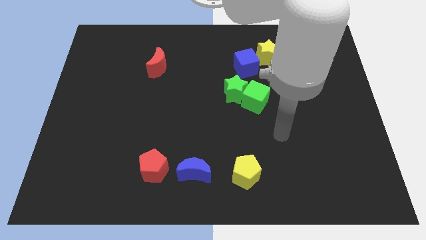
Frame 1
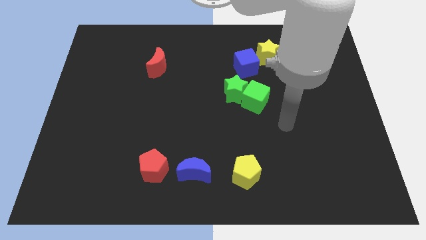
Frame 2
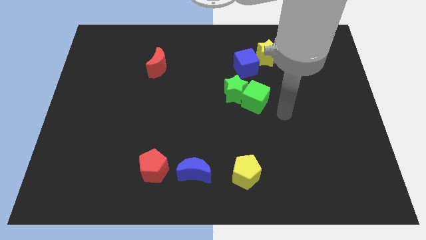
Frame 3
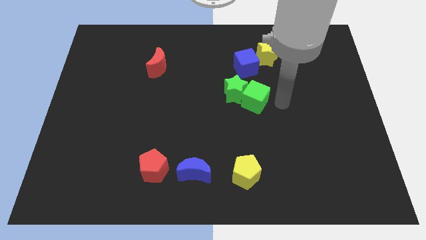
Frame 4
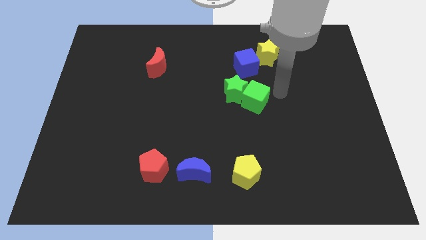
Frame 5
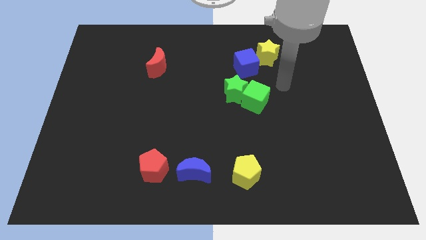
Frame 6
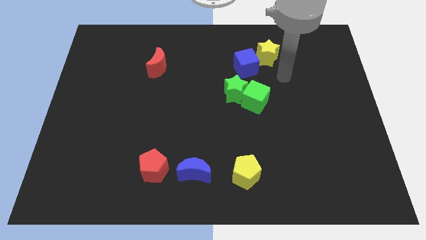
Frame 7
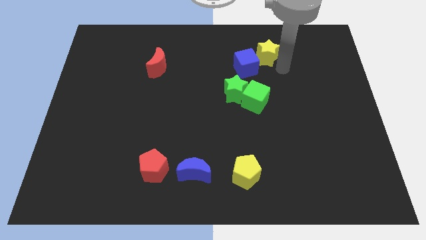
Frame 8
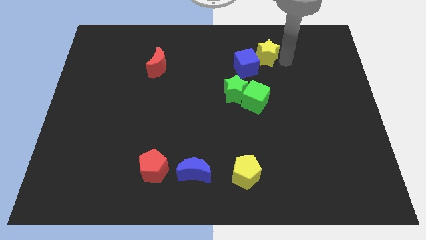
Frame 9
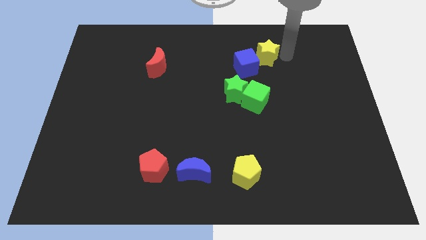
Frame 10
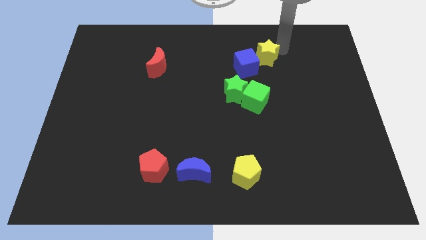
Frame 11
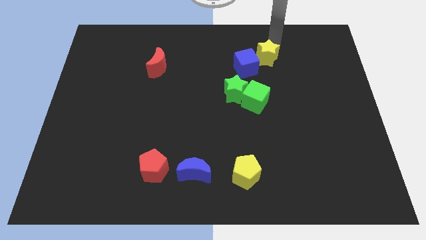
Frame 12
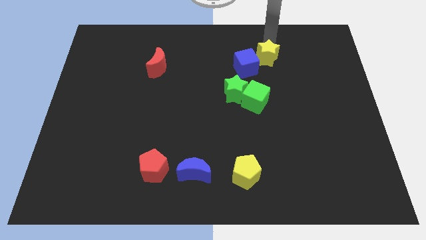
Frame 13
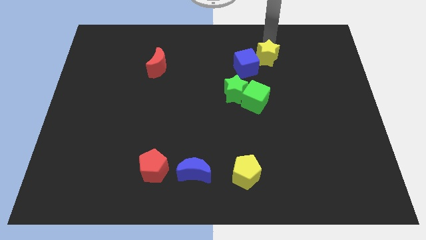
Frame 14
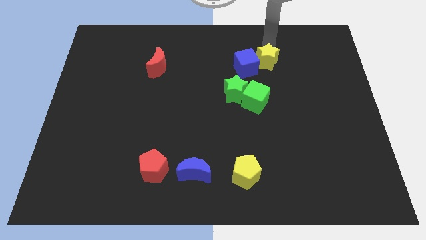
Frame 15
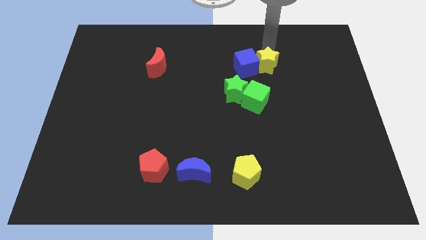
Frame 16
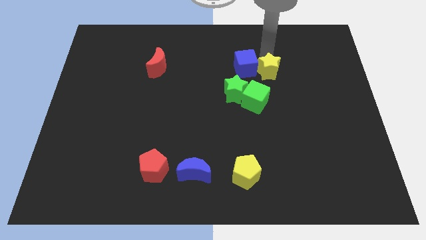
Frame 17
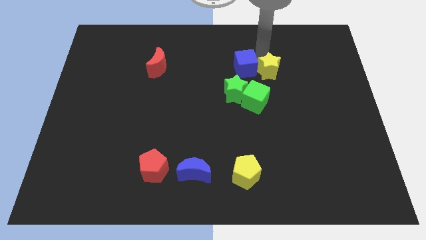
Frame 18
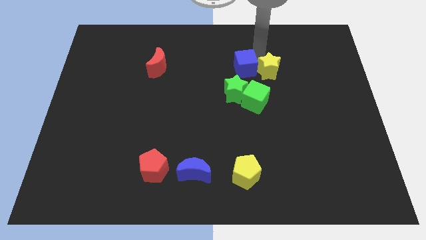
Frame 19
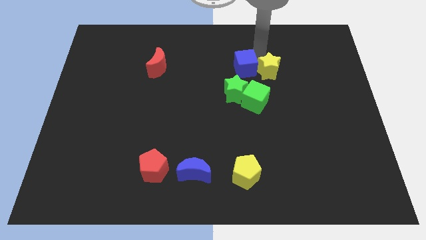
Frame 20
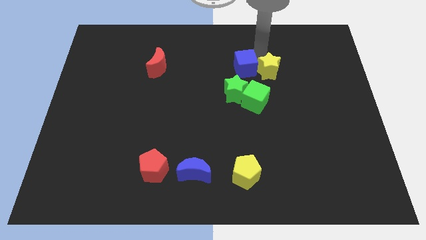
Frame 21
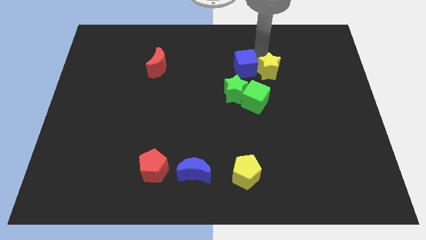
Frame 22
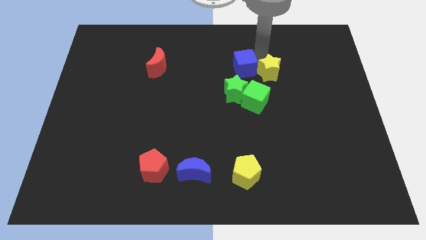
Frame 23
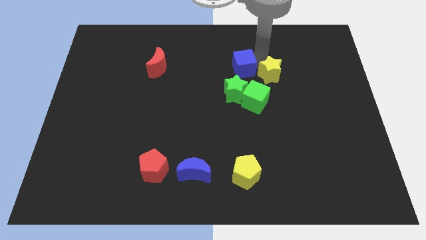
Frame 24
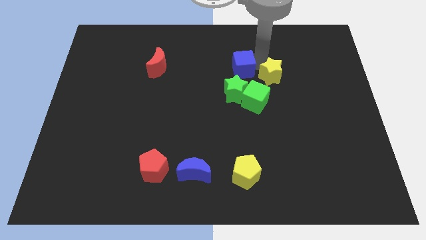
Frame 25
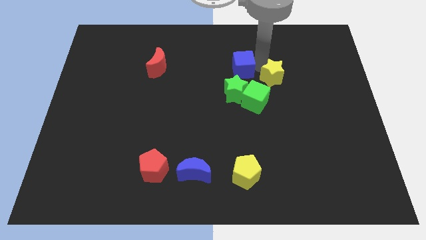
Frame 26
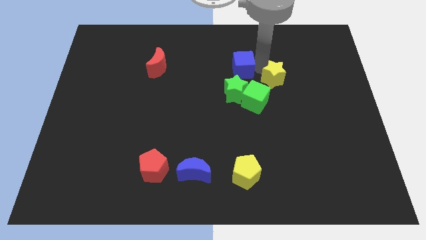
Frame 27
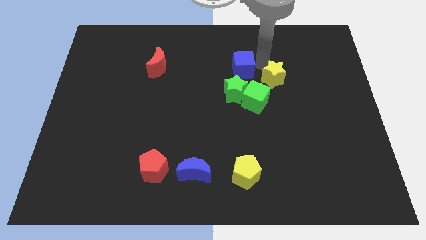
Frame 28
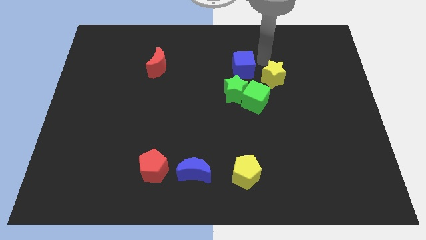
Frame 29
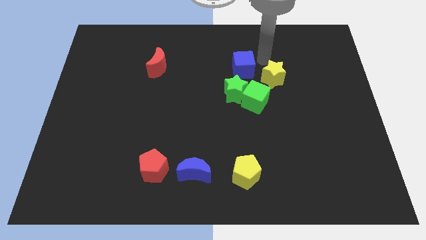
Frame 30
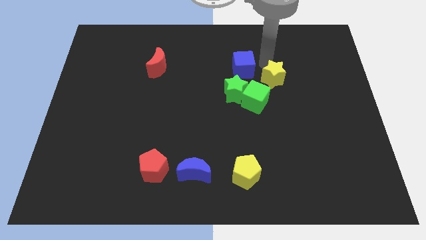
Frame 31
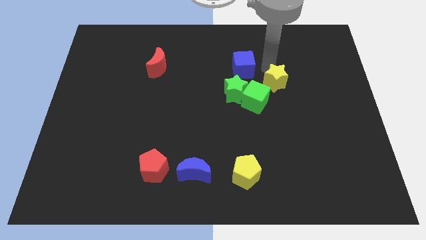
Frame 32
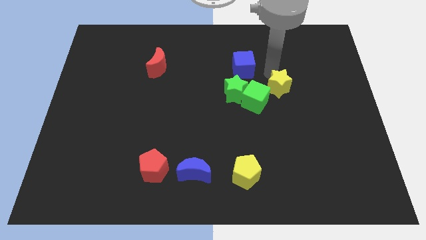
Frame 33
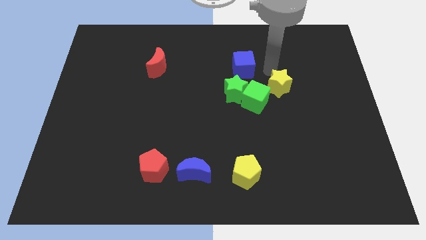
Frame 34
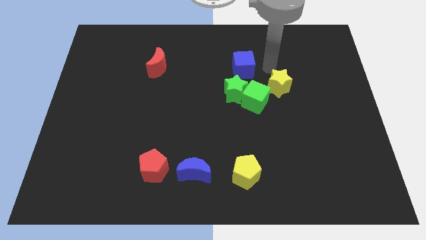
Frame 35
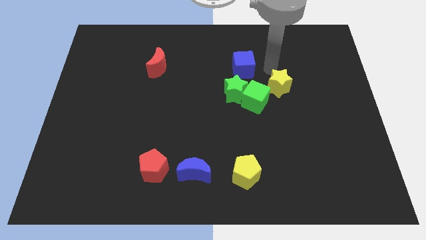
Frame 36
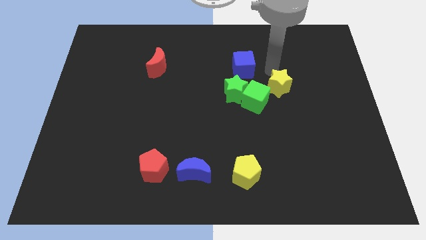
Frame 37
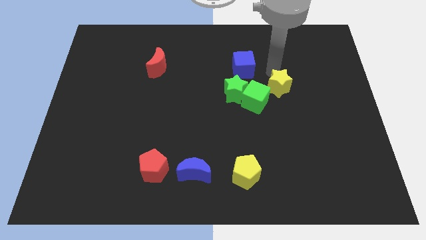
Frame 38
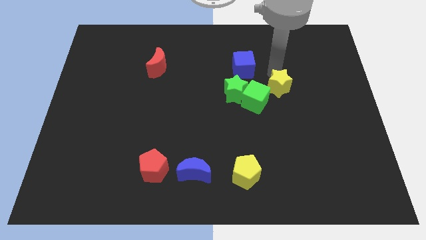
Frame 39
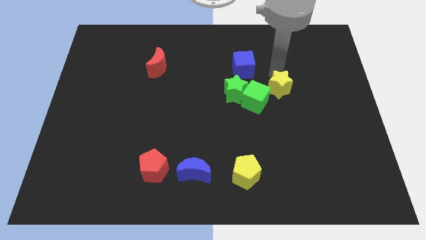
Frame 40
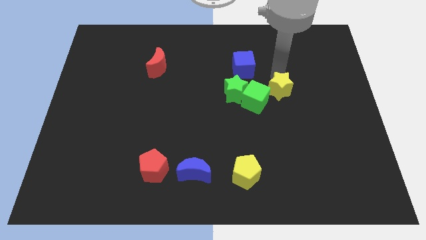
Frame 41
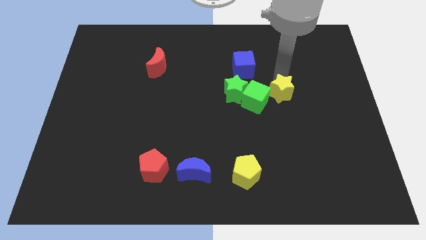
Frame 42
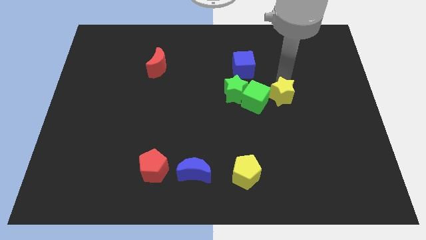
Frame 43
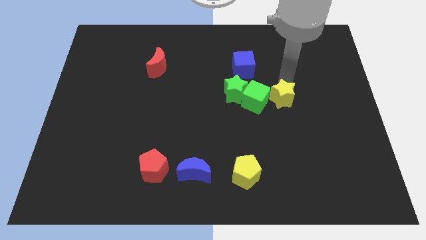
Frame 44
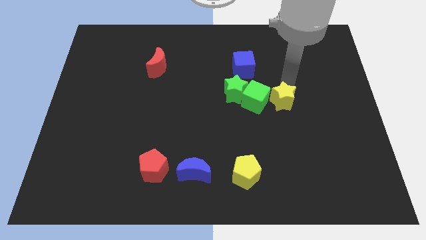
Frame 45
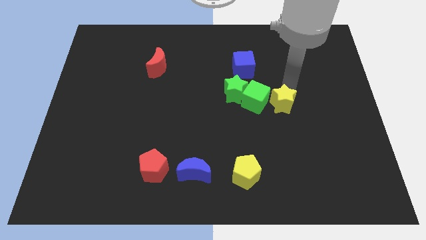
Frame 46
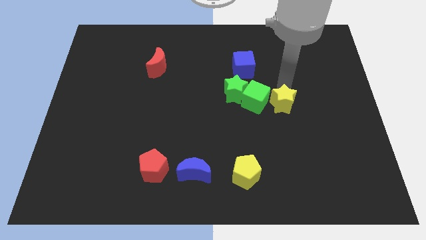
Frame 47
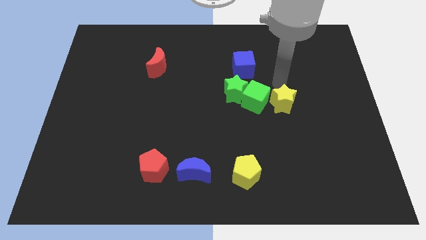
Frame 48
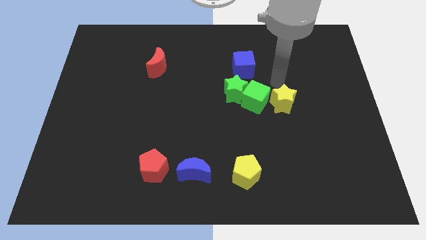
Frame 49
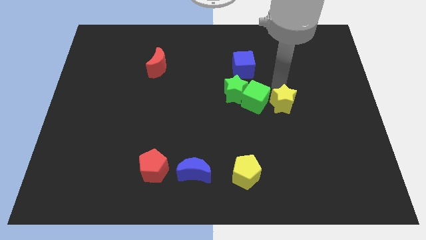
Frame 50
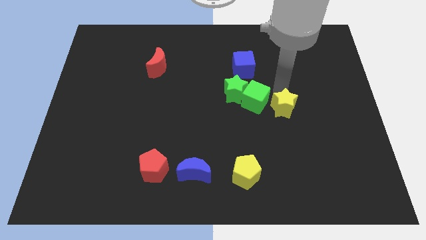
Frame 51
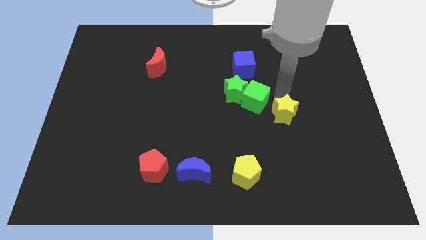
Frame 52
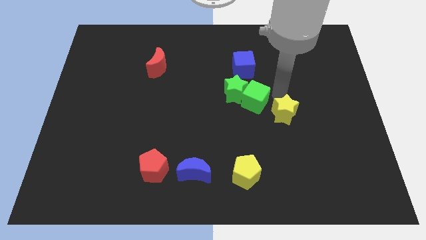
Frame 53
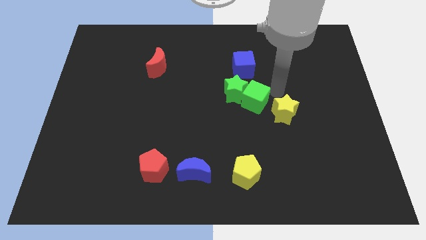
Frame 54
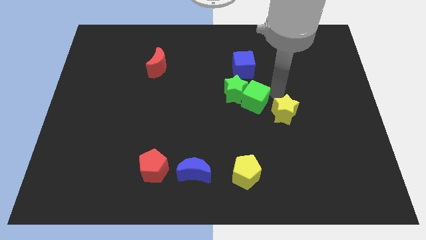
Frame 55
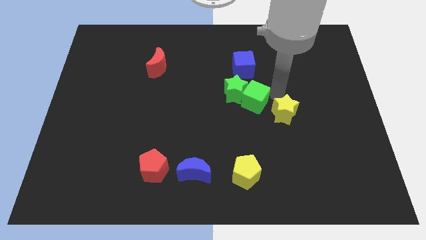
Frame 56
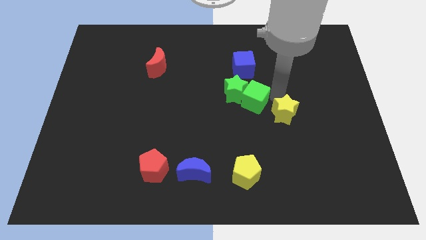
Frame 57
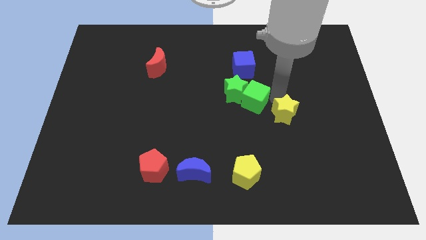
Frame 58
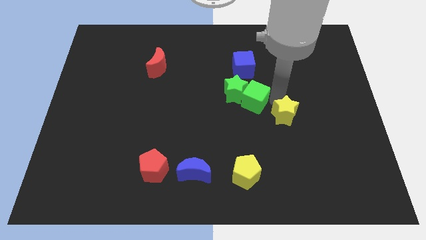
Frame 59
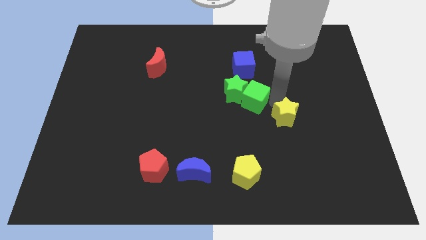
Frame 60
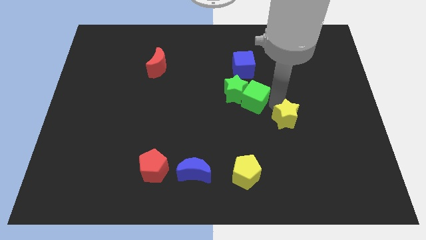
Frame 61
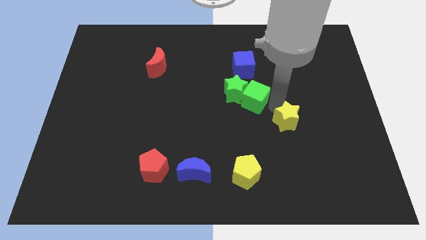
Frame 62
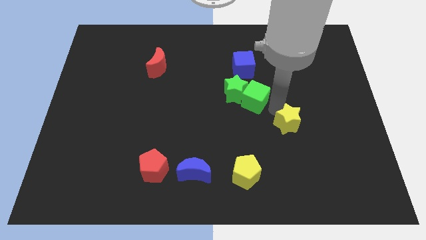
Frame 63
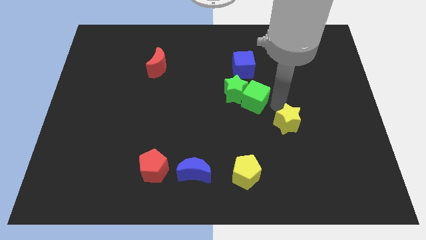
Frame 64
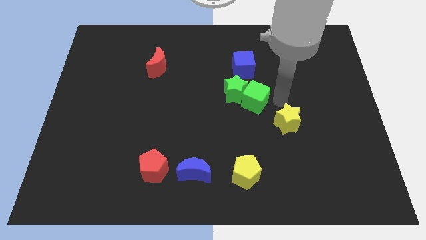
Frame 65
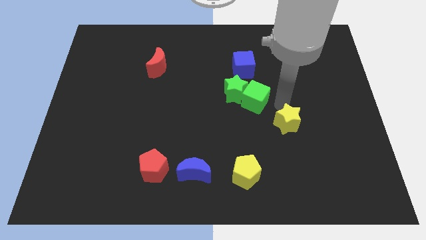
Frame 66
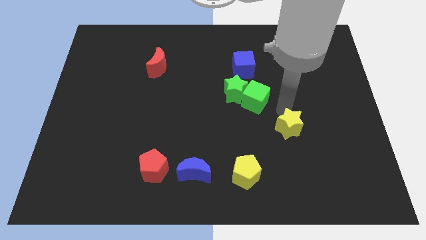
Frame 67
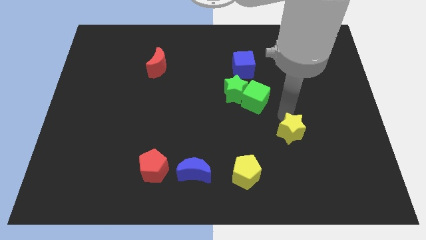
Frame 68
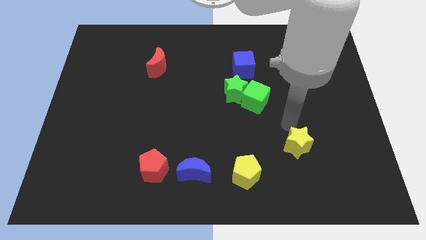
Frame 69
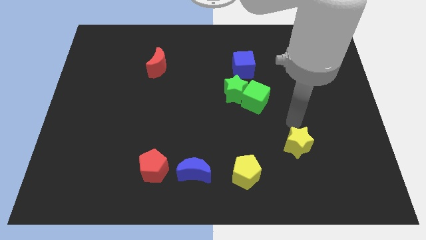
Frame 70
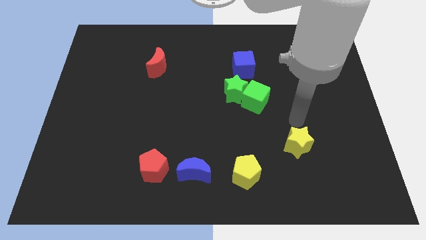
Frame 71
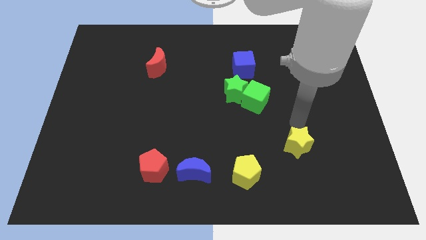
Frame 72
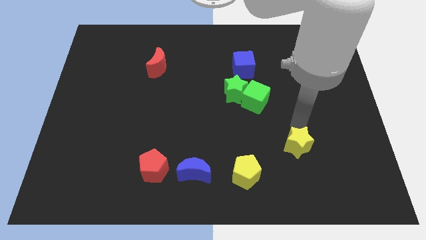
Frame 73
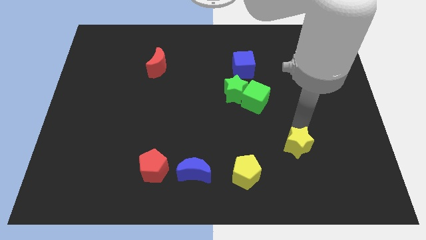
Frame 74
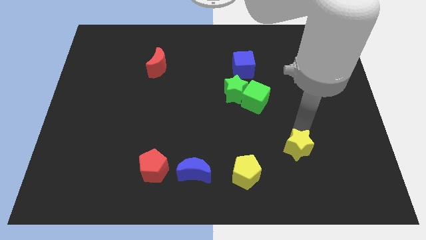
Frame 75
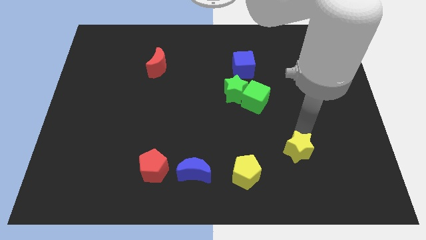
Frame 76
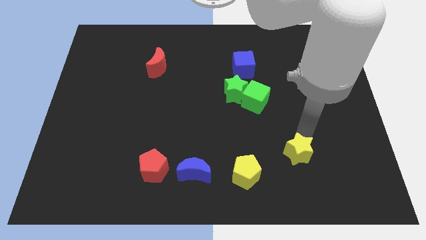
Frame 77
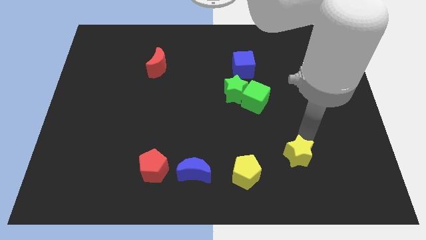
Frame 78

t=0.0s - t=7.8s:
move the yellow star to the right side of the yellow pentagon
